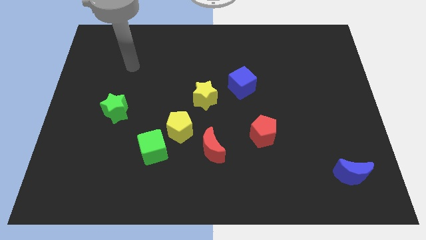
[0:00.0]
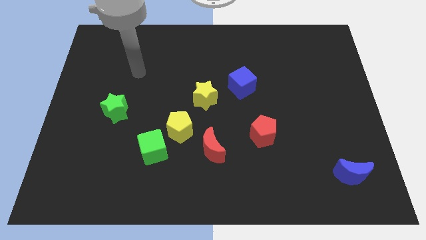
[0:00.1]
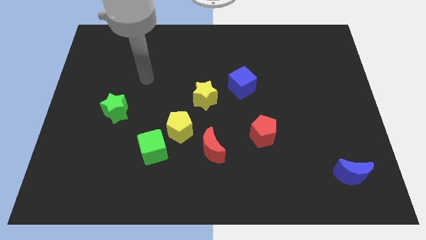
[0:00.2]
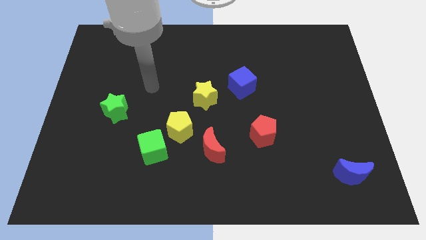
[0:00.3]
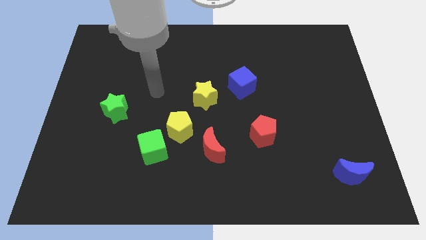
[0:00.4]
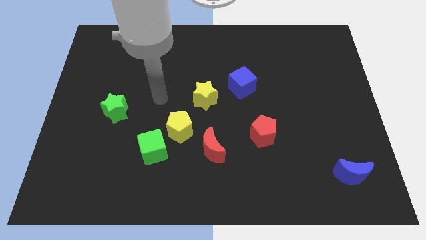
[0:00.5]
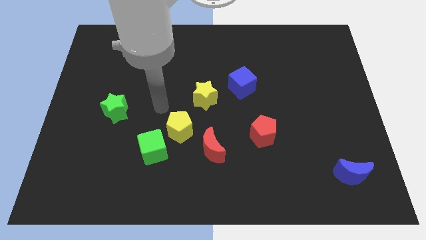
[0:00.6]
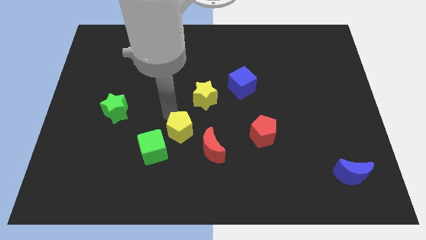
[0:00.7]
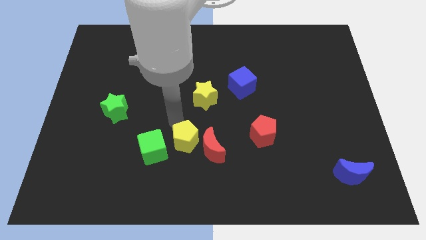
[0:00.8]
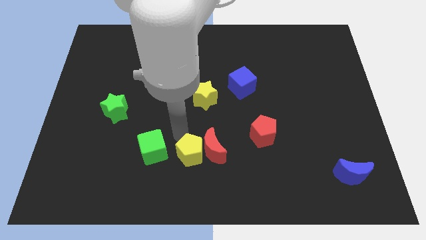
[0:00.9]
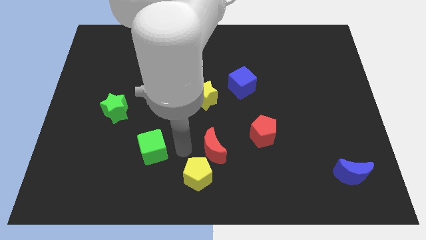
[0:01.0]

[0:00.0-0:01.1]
separate the green cube from the yellow pentagon

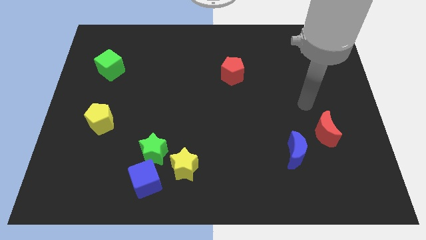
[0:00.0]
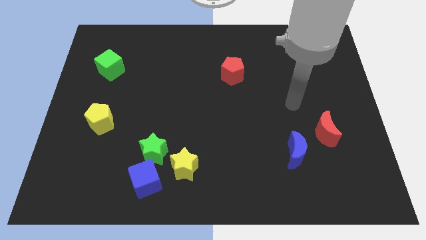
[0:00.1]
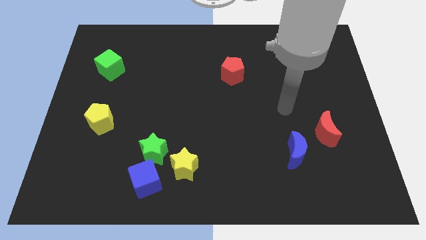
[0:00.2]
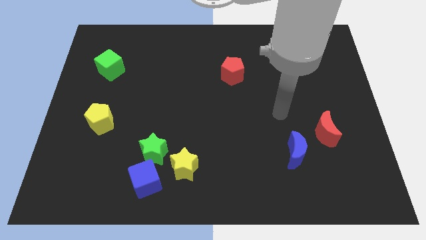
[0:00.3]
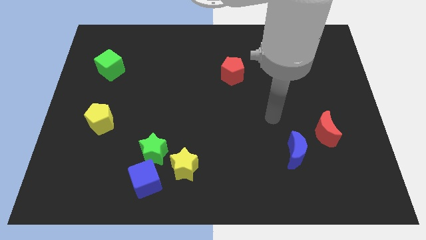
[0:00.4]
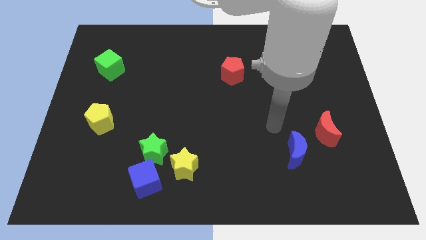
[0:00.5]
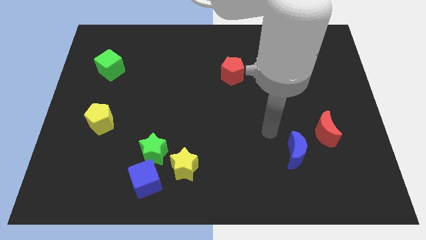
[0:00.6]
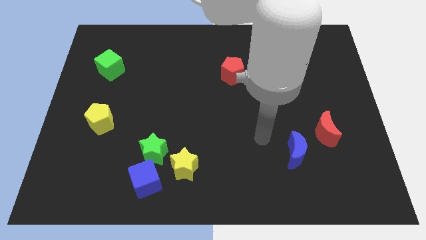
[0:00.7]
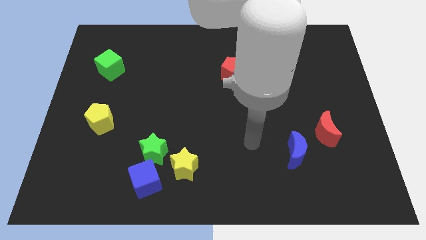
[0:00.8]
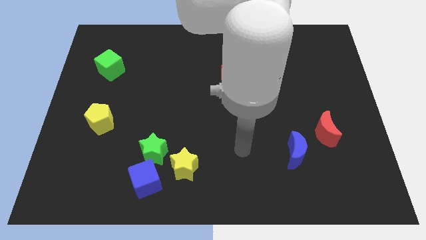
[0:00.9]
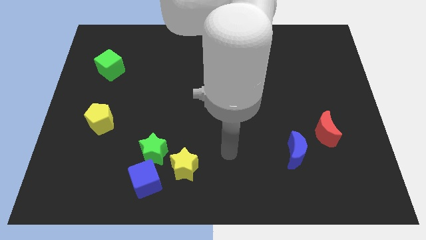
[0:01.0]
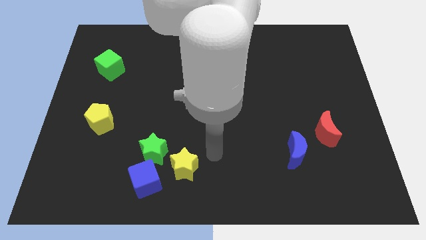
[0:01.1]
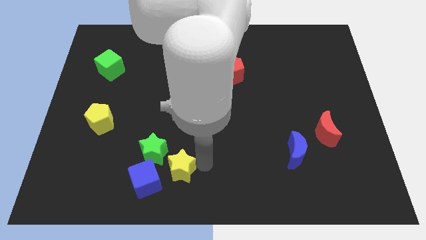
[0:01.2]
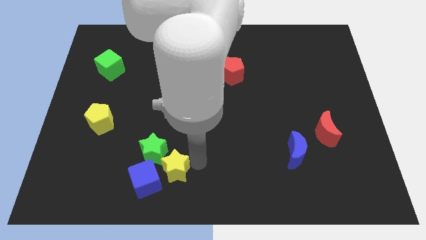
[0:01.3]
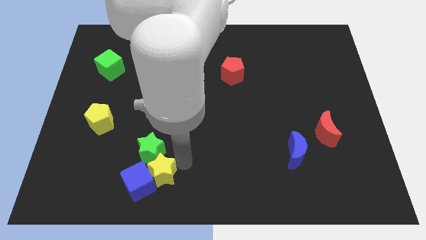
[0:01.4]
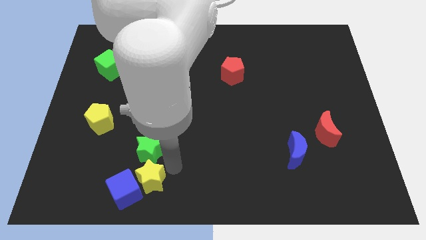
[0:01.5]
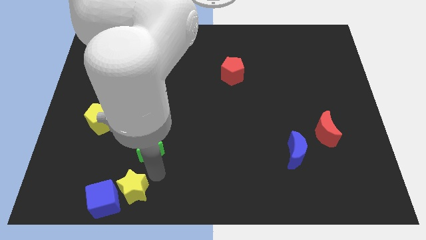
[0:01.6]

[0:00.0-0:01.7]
move the green star away from the blue cube and yellow star

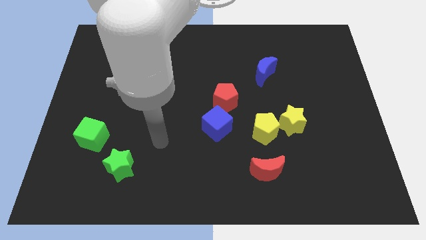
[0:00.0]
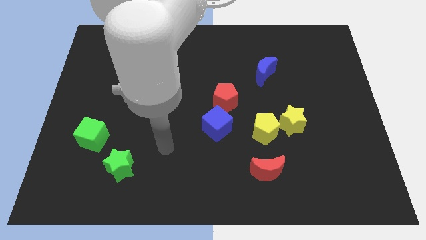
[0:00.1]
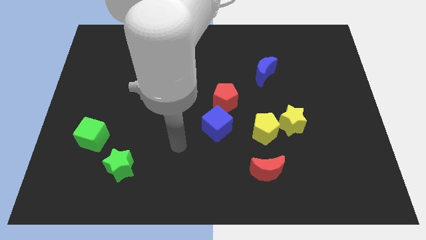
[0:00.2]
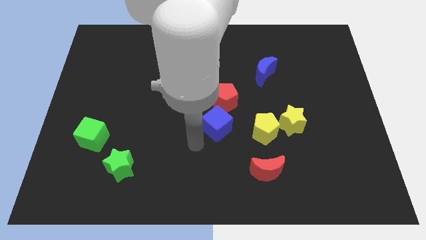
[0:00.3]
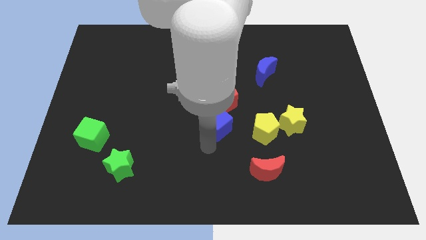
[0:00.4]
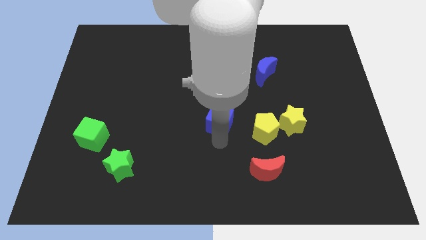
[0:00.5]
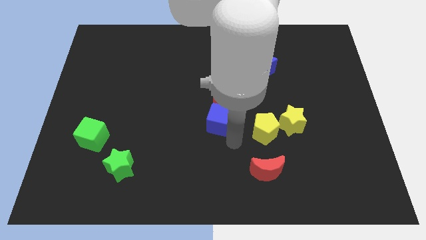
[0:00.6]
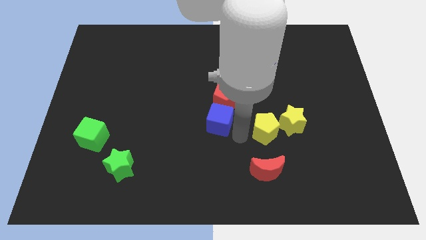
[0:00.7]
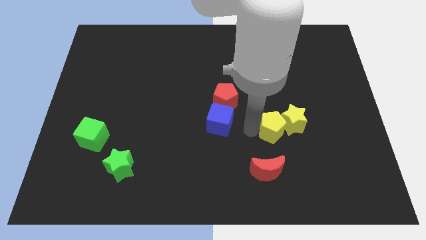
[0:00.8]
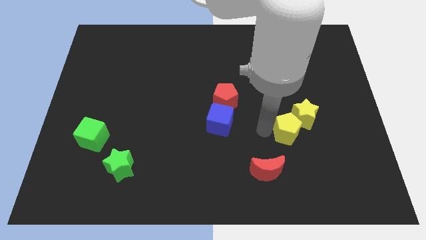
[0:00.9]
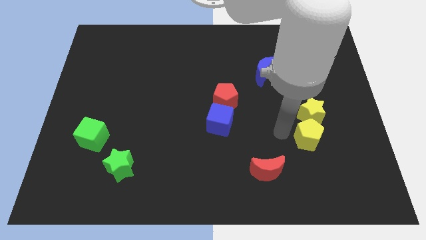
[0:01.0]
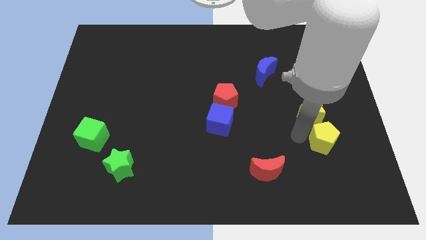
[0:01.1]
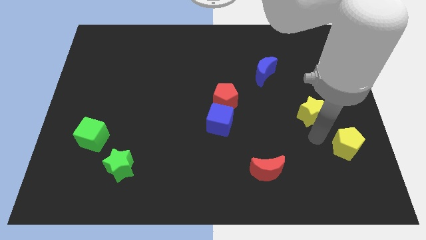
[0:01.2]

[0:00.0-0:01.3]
pull the yellow star apart from the yellow pentagon

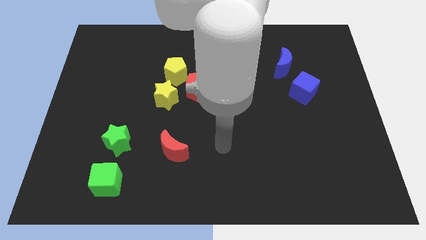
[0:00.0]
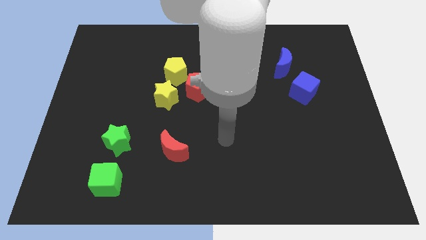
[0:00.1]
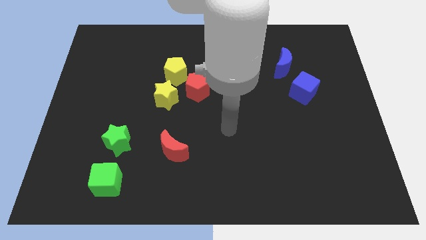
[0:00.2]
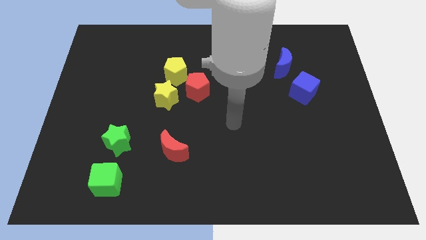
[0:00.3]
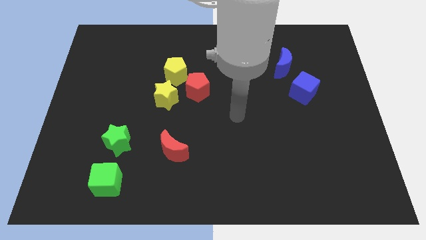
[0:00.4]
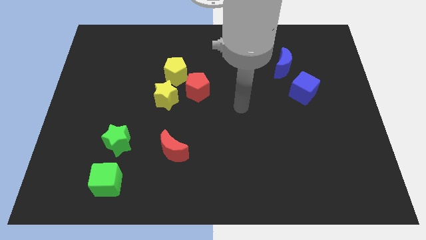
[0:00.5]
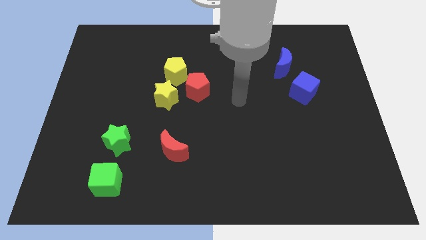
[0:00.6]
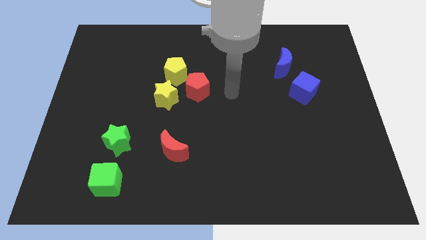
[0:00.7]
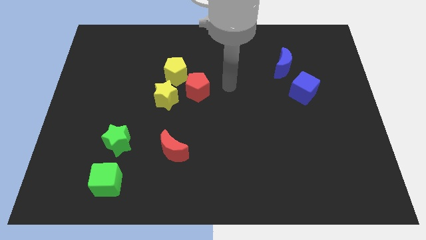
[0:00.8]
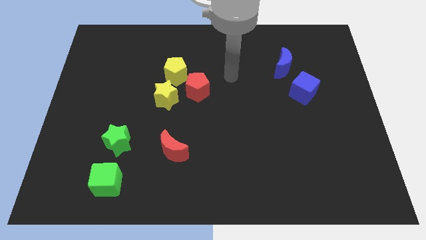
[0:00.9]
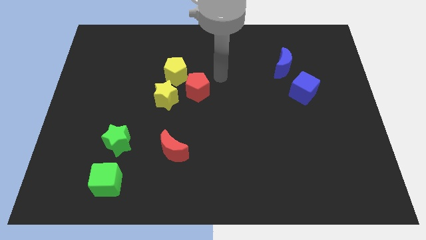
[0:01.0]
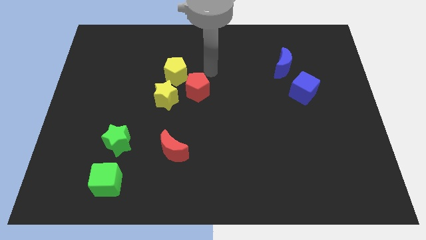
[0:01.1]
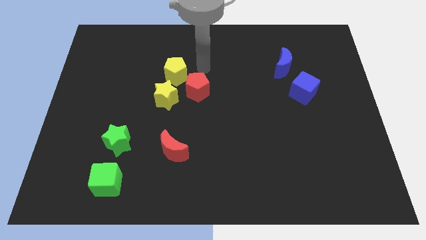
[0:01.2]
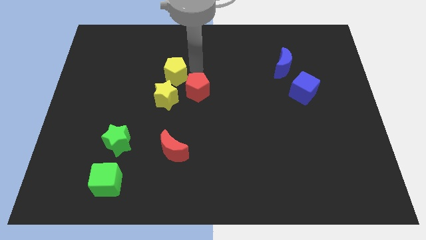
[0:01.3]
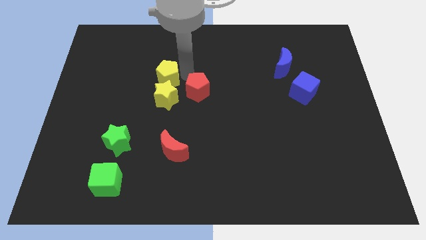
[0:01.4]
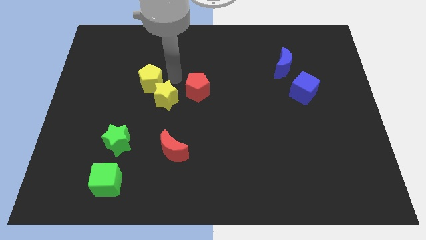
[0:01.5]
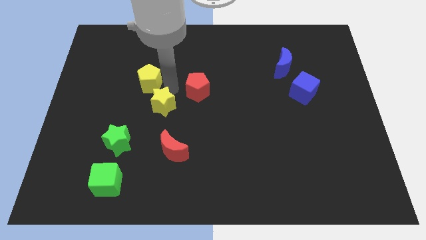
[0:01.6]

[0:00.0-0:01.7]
separate the red pentagon from the yellow pentagon and yellow star

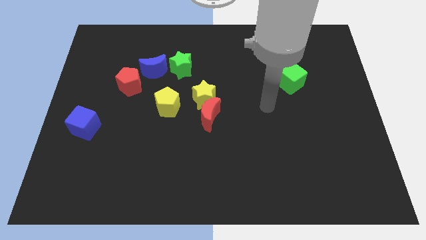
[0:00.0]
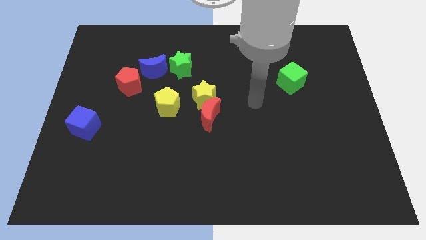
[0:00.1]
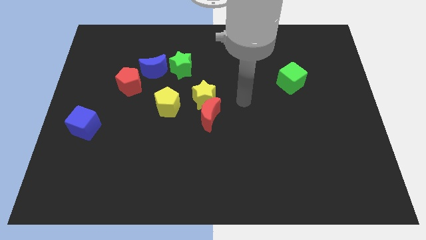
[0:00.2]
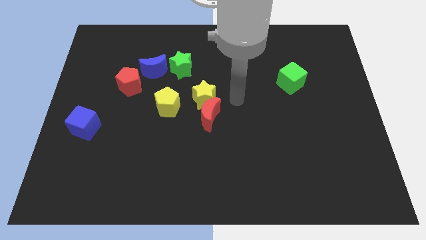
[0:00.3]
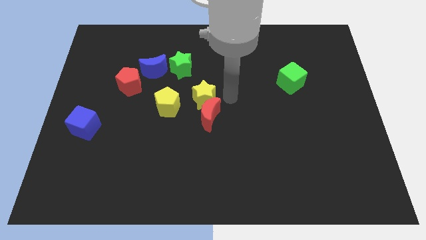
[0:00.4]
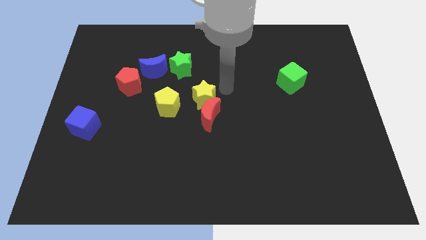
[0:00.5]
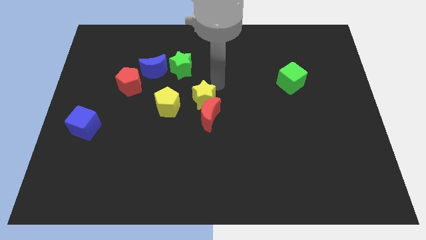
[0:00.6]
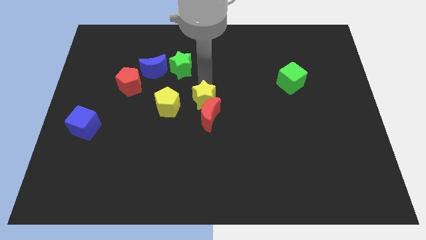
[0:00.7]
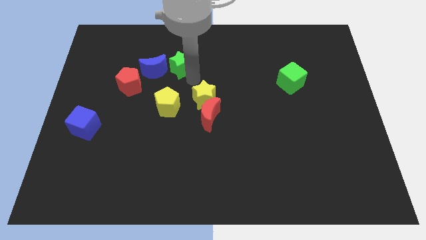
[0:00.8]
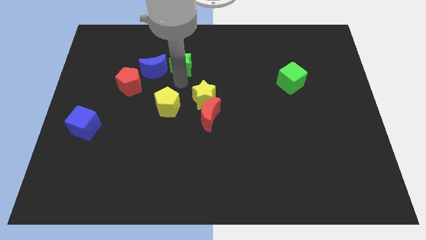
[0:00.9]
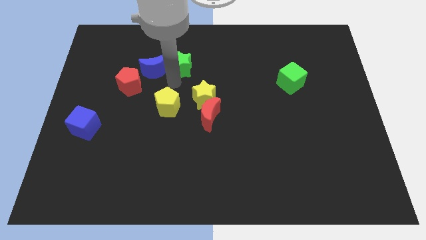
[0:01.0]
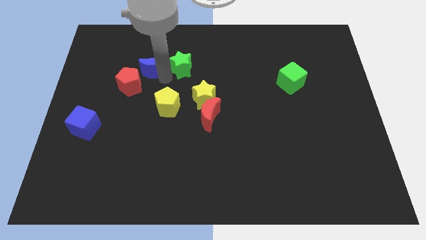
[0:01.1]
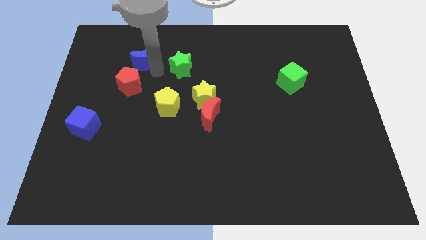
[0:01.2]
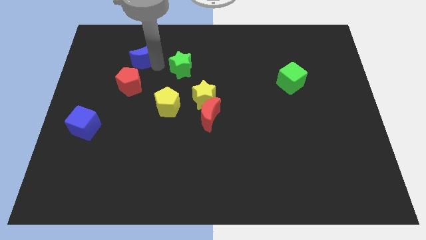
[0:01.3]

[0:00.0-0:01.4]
move the green star away from the blue moon

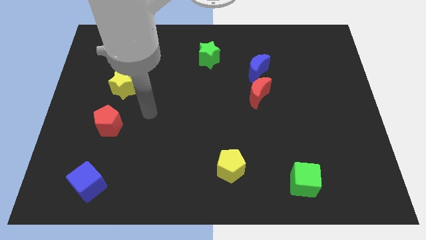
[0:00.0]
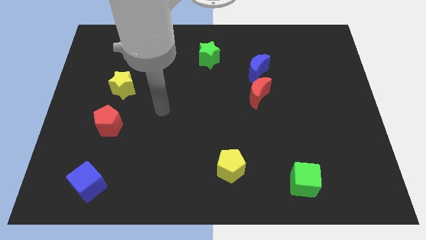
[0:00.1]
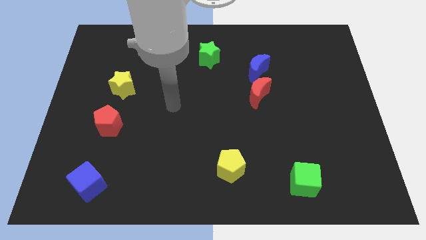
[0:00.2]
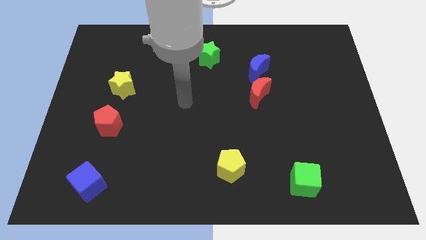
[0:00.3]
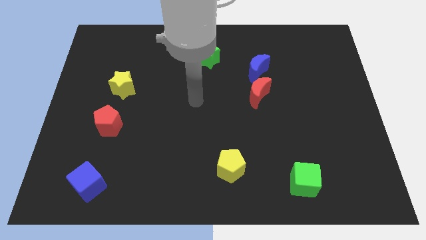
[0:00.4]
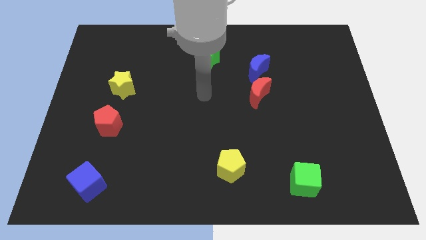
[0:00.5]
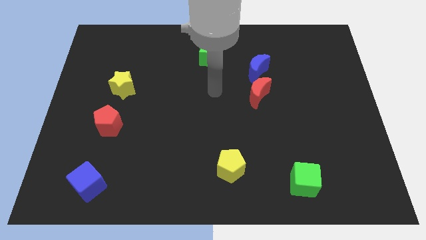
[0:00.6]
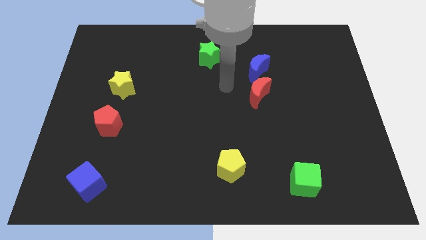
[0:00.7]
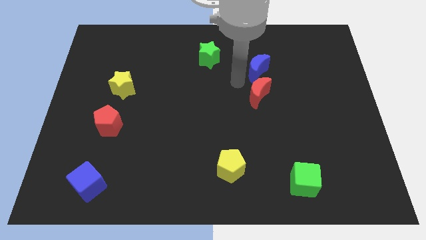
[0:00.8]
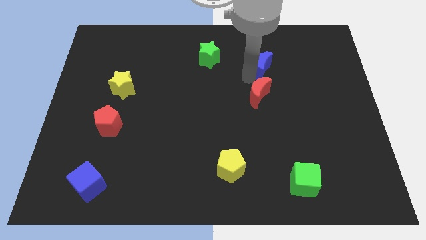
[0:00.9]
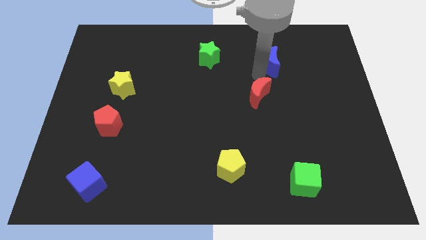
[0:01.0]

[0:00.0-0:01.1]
separate the red moon from the blue moon

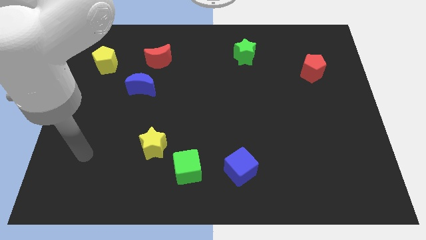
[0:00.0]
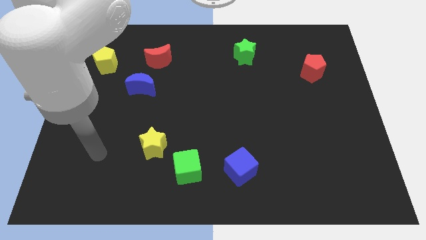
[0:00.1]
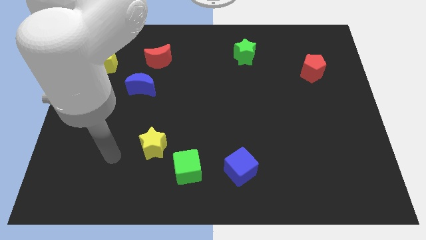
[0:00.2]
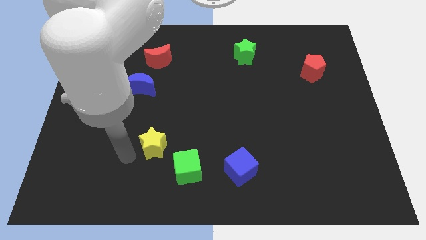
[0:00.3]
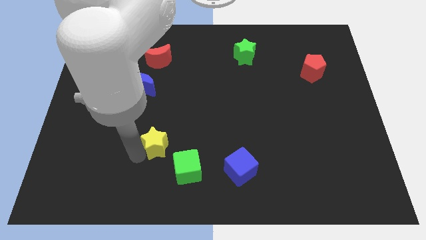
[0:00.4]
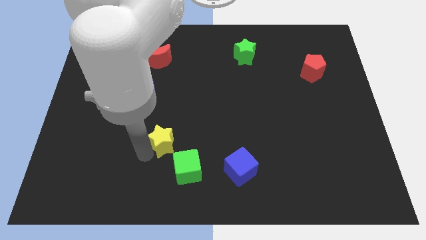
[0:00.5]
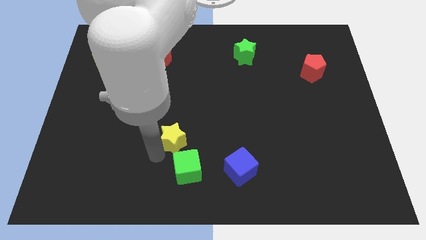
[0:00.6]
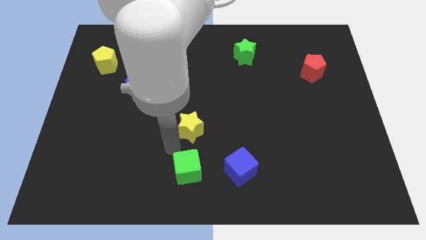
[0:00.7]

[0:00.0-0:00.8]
separate the green cube from the yellow star
